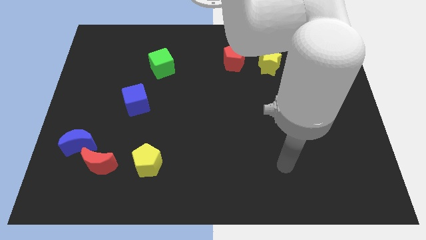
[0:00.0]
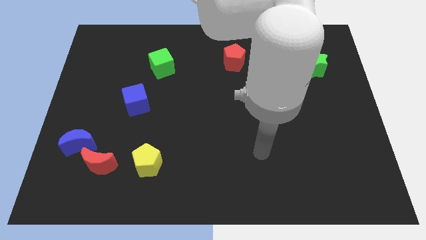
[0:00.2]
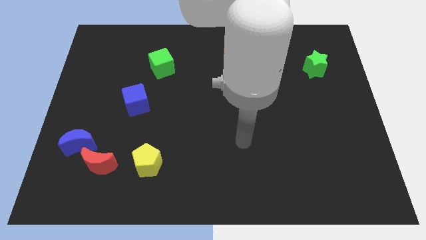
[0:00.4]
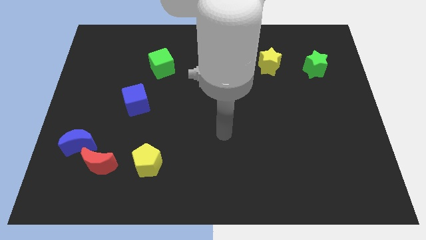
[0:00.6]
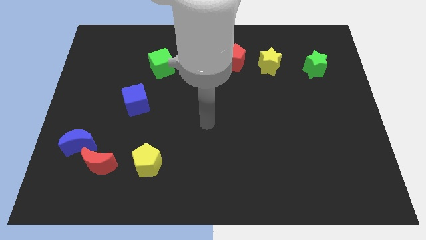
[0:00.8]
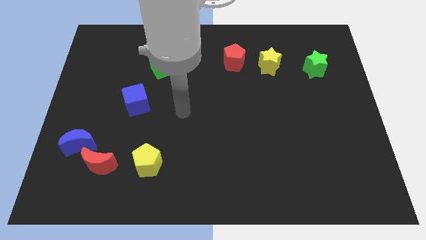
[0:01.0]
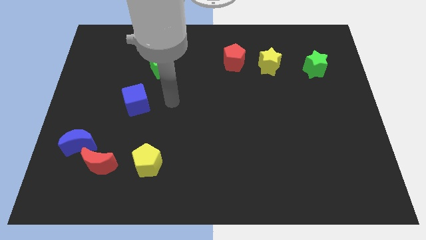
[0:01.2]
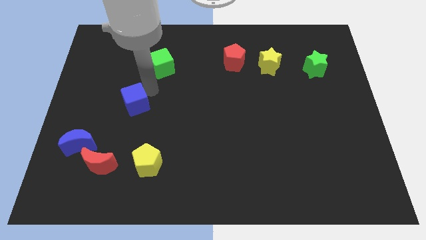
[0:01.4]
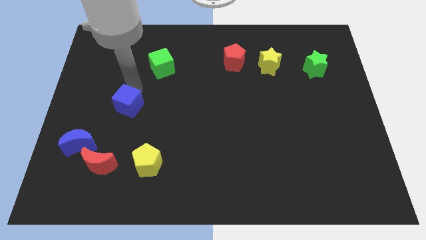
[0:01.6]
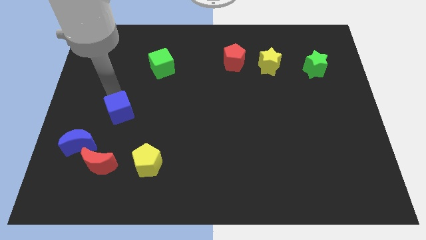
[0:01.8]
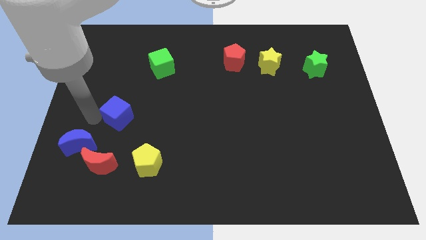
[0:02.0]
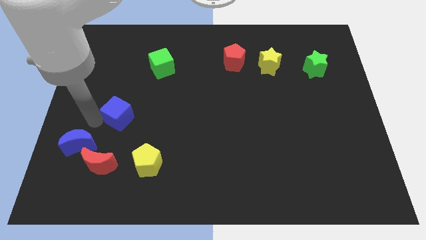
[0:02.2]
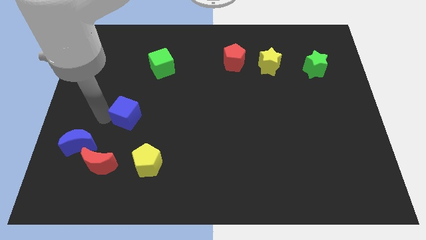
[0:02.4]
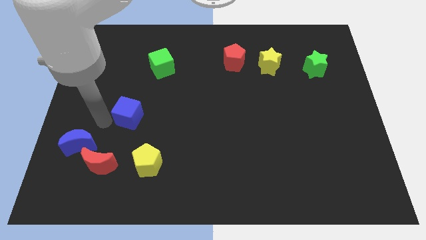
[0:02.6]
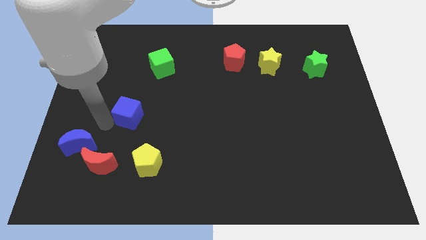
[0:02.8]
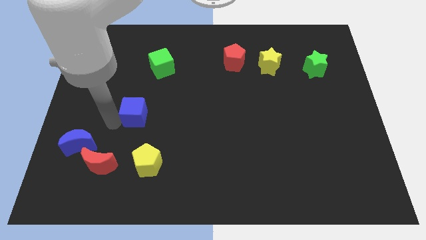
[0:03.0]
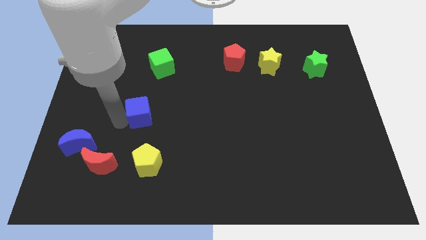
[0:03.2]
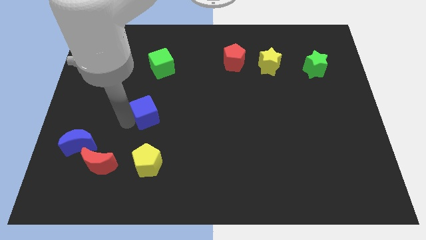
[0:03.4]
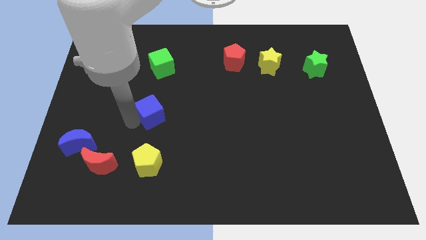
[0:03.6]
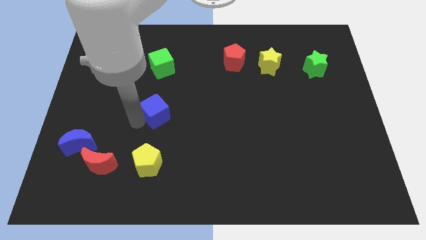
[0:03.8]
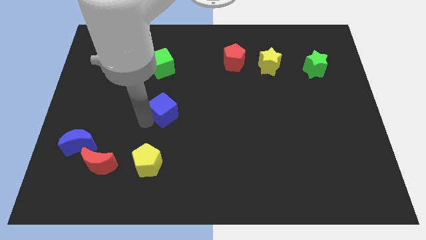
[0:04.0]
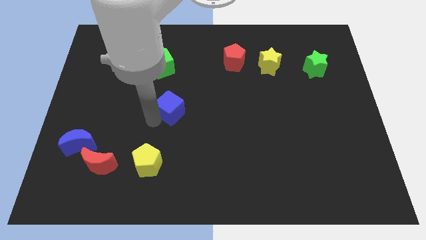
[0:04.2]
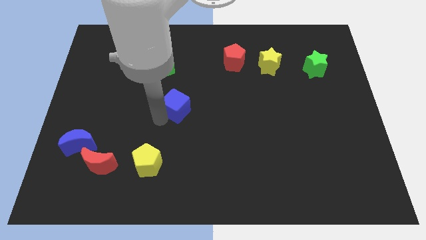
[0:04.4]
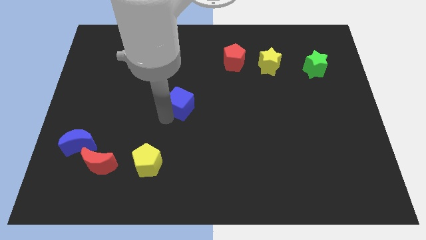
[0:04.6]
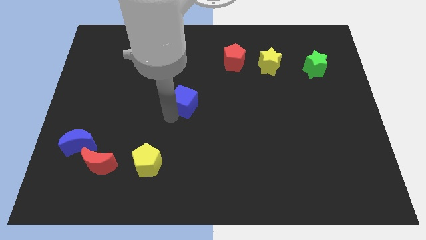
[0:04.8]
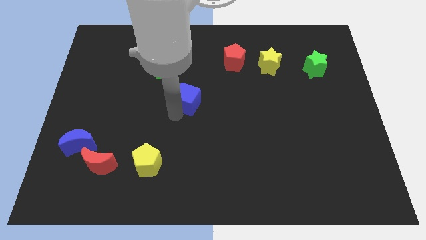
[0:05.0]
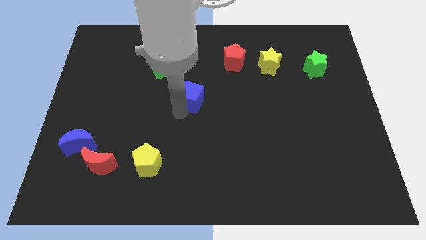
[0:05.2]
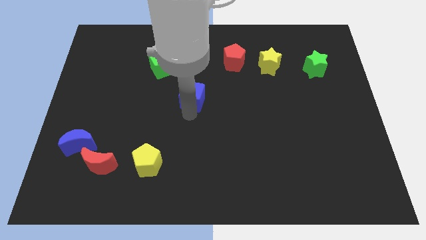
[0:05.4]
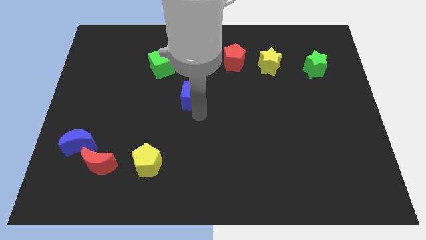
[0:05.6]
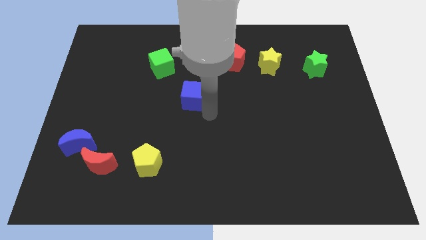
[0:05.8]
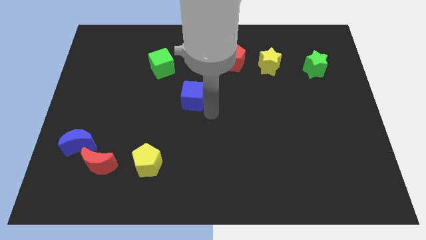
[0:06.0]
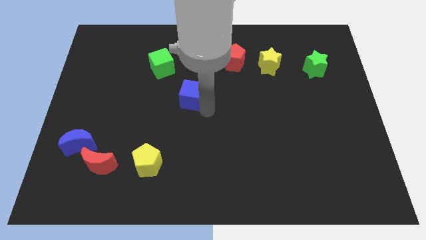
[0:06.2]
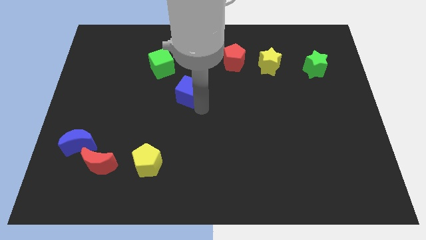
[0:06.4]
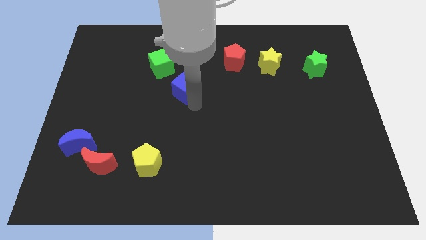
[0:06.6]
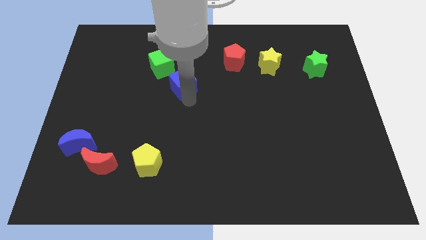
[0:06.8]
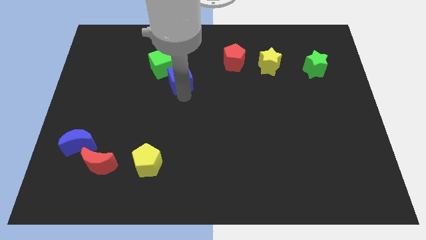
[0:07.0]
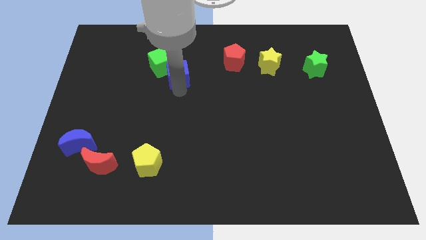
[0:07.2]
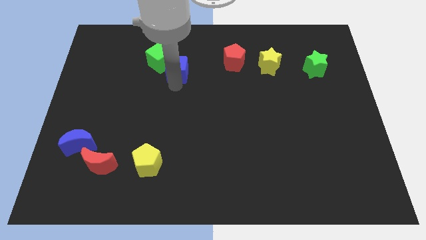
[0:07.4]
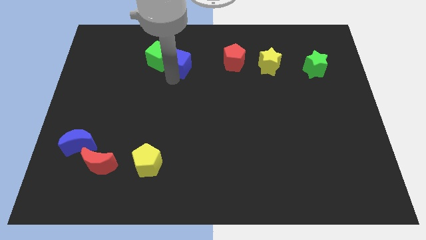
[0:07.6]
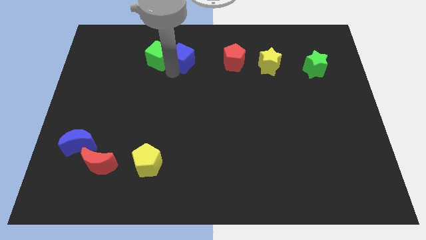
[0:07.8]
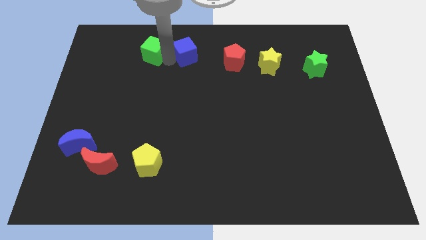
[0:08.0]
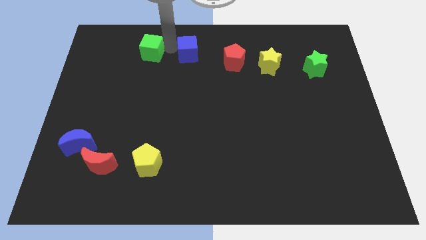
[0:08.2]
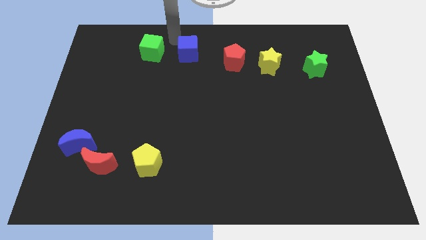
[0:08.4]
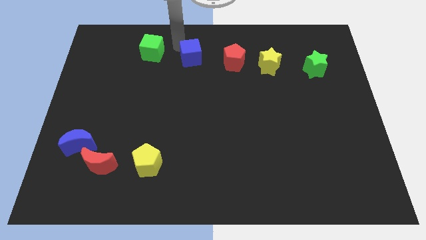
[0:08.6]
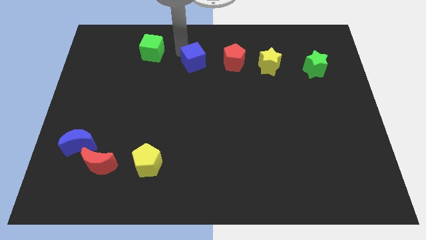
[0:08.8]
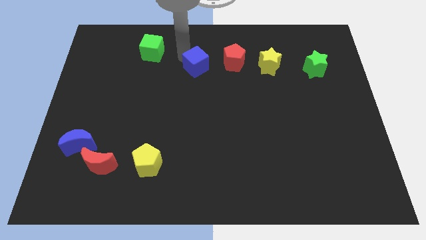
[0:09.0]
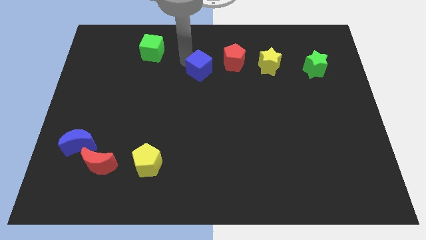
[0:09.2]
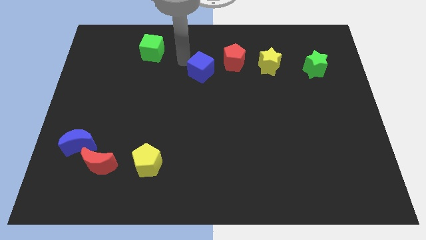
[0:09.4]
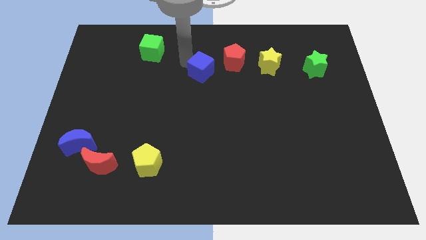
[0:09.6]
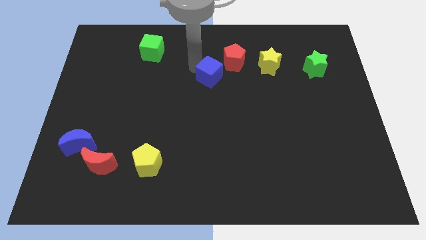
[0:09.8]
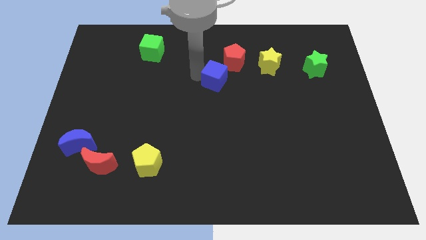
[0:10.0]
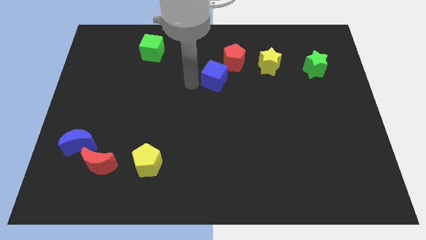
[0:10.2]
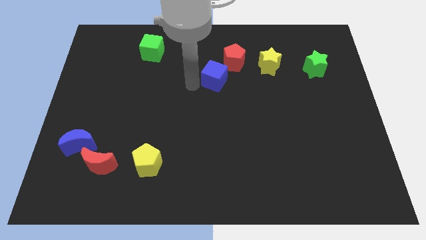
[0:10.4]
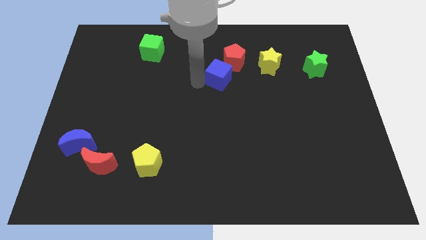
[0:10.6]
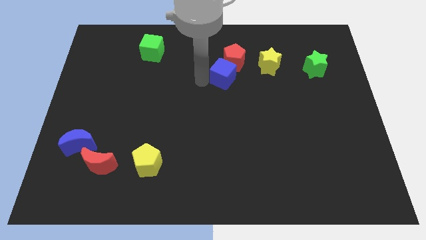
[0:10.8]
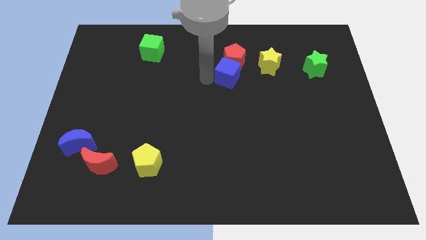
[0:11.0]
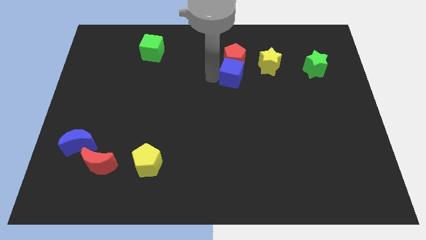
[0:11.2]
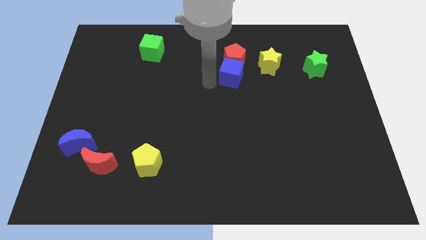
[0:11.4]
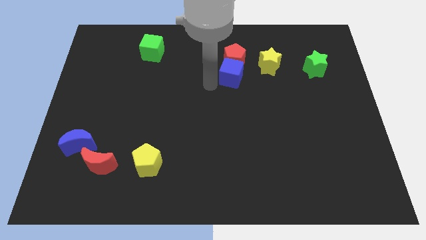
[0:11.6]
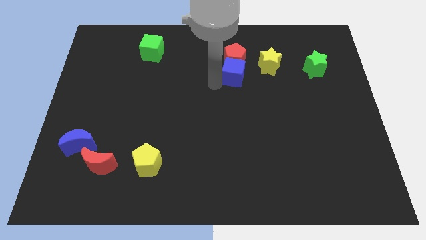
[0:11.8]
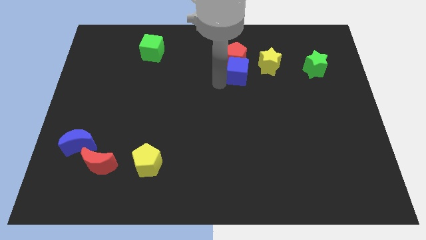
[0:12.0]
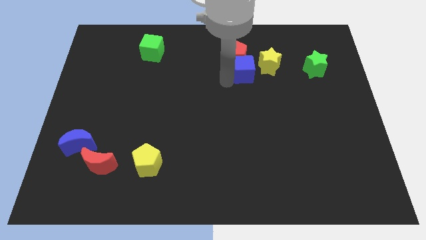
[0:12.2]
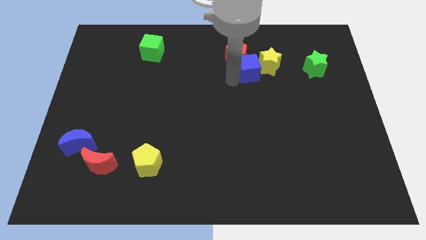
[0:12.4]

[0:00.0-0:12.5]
slide the blue cube towards the yellow star

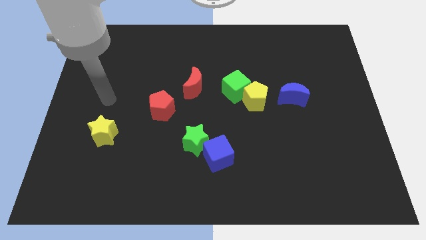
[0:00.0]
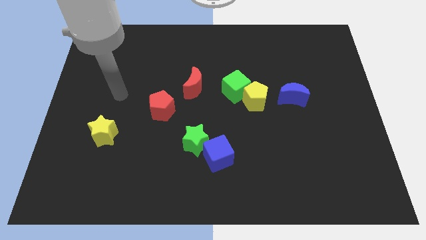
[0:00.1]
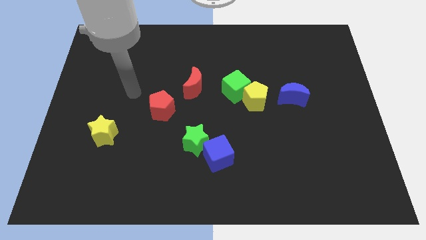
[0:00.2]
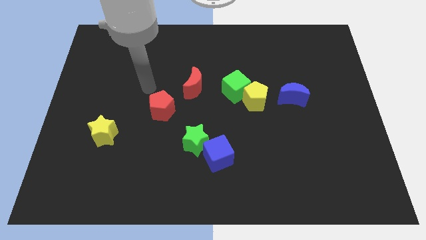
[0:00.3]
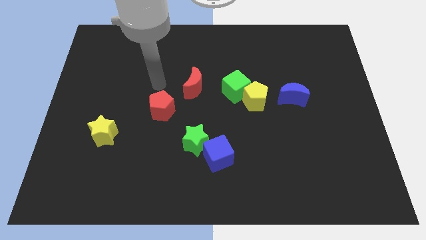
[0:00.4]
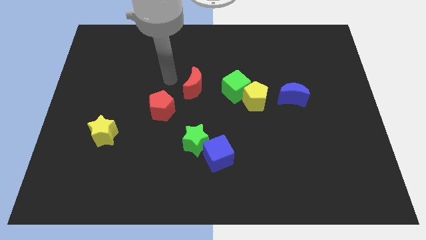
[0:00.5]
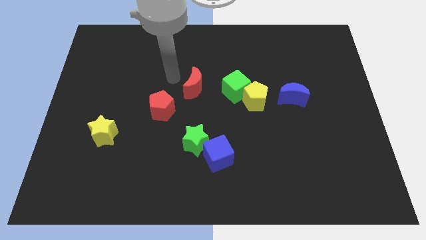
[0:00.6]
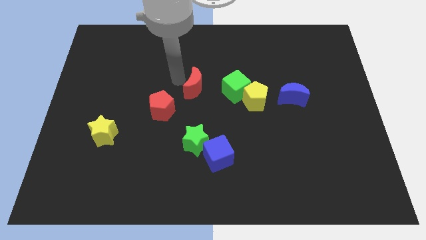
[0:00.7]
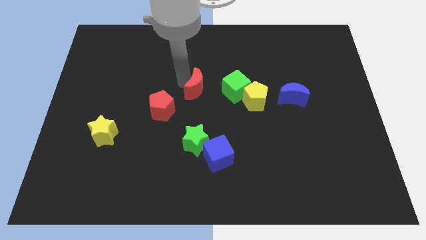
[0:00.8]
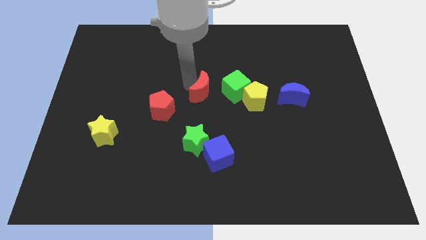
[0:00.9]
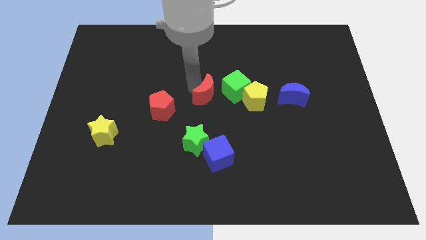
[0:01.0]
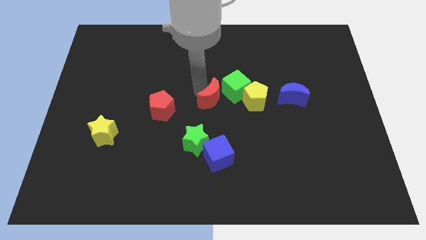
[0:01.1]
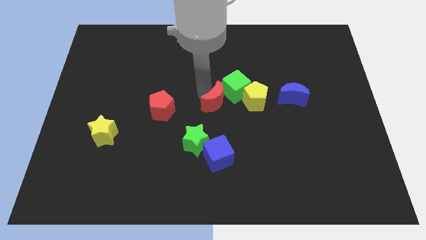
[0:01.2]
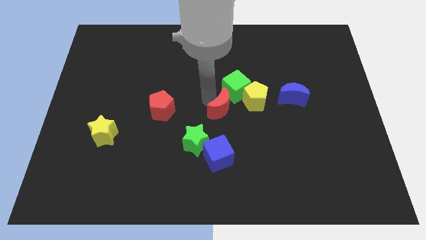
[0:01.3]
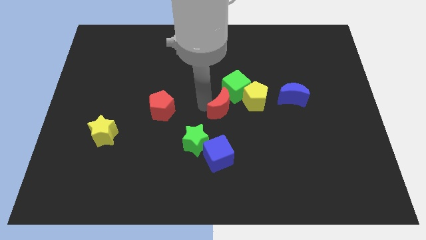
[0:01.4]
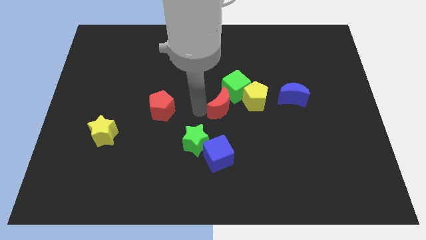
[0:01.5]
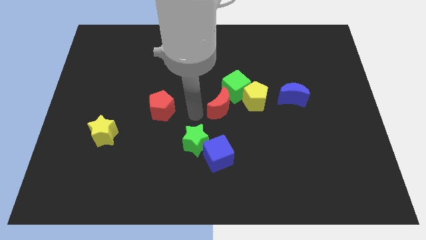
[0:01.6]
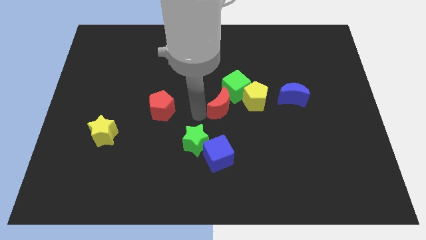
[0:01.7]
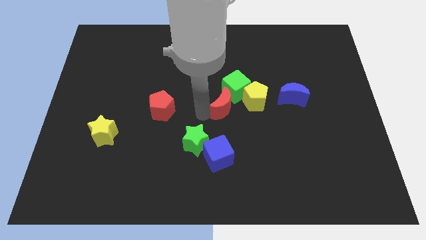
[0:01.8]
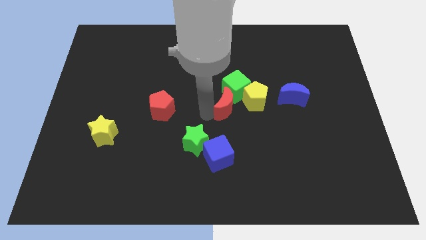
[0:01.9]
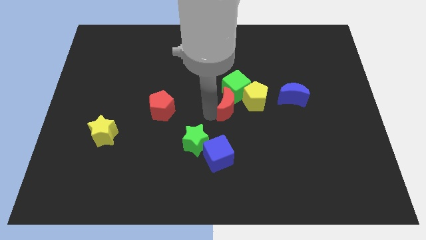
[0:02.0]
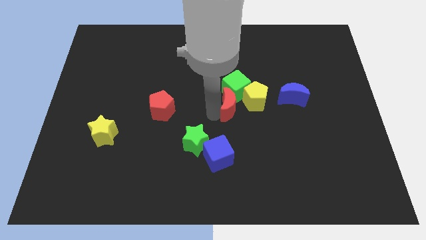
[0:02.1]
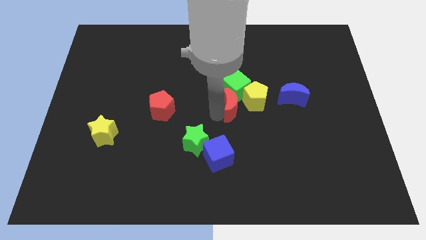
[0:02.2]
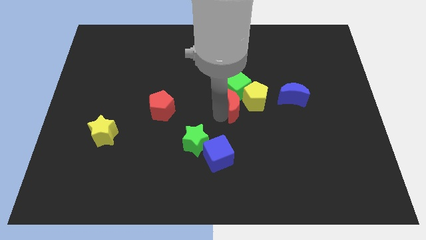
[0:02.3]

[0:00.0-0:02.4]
push the red moon towards the yellow pentagon
